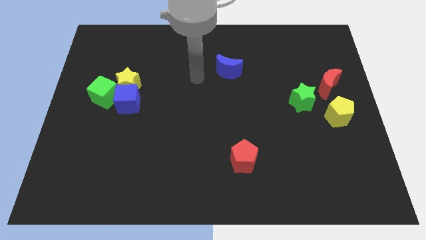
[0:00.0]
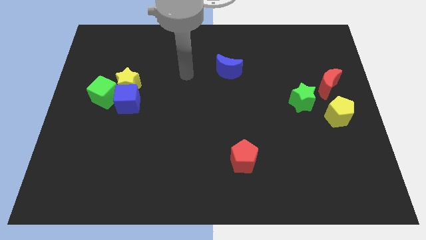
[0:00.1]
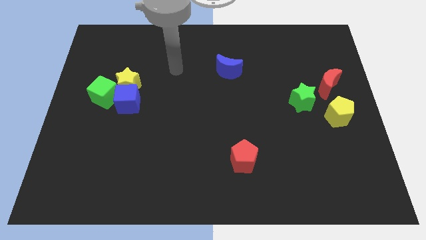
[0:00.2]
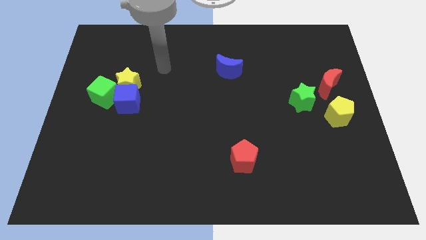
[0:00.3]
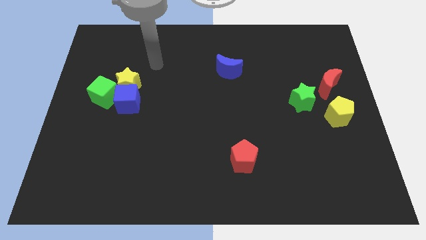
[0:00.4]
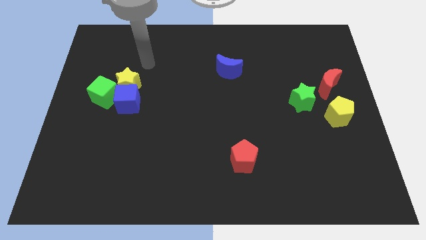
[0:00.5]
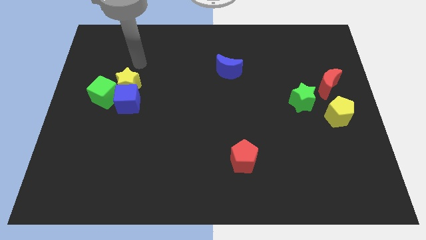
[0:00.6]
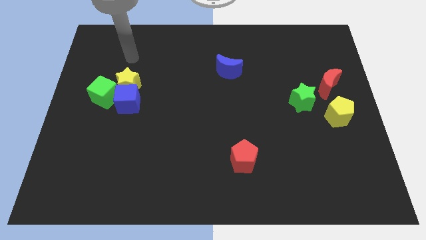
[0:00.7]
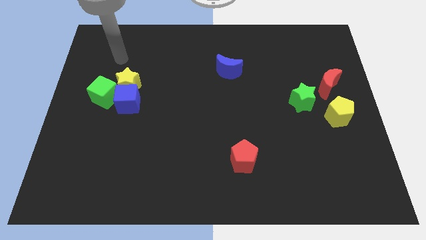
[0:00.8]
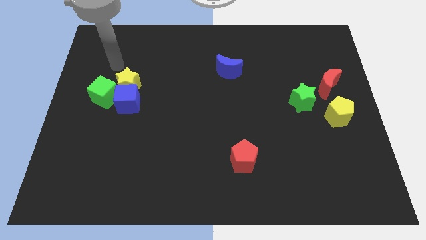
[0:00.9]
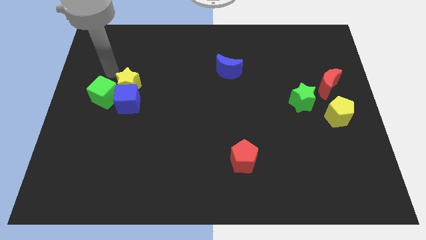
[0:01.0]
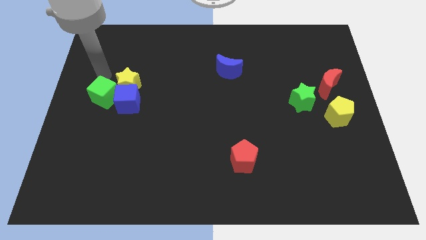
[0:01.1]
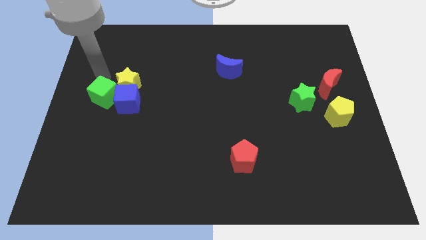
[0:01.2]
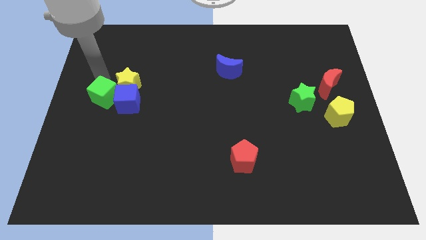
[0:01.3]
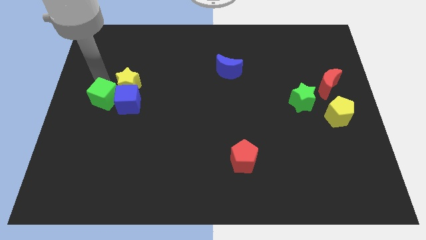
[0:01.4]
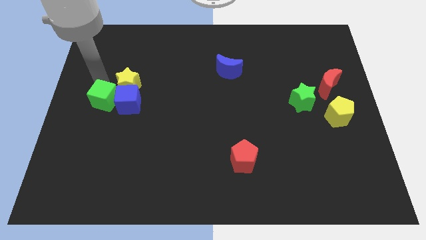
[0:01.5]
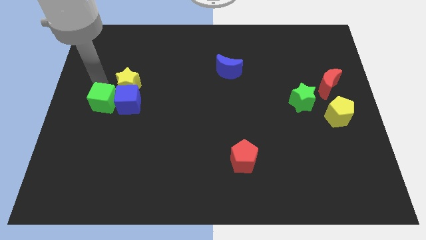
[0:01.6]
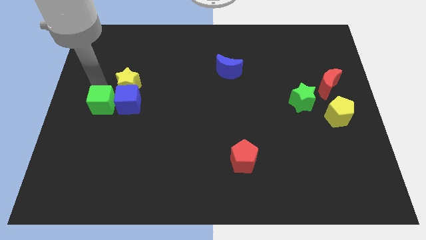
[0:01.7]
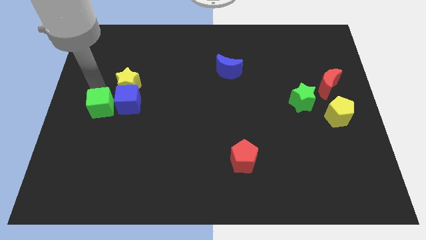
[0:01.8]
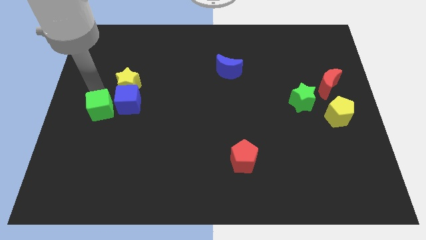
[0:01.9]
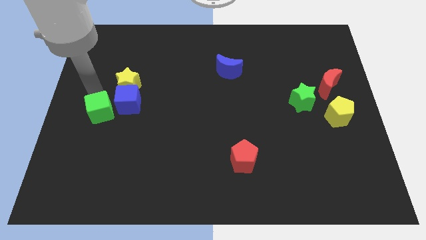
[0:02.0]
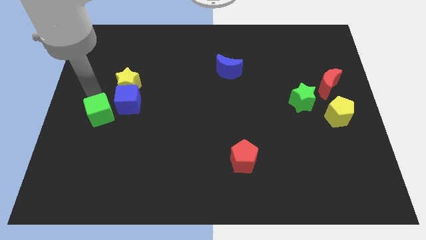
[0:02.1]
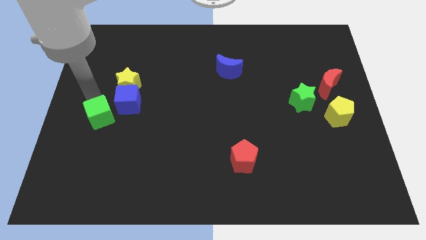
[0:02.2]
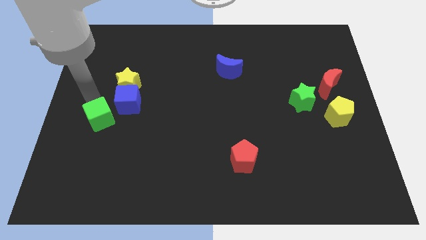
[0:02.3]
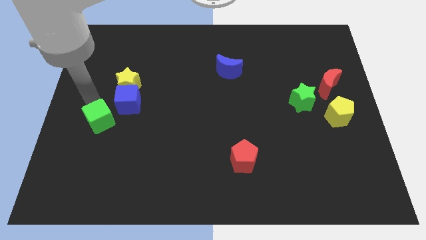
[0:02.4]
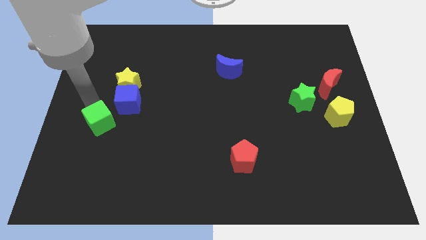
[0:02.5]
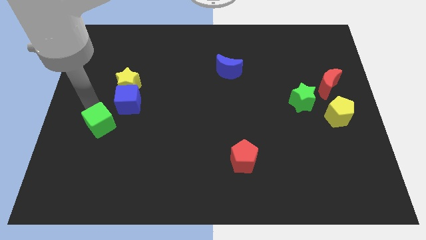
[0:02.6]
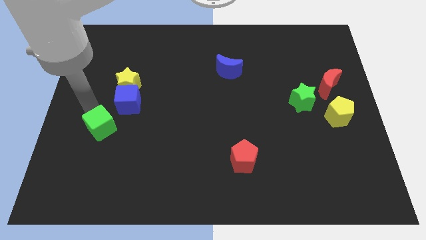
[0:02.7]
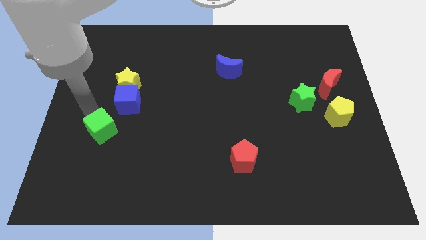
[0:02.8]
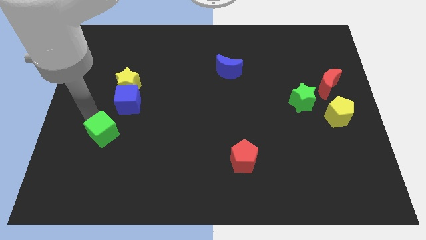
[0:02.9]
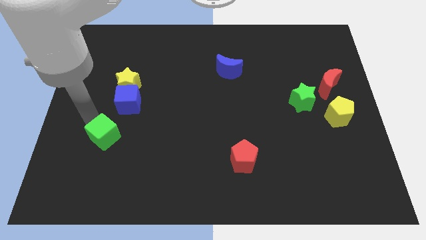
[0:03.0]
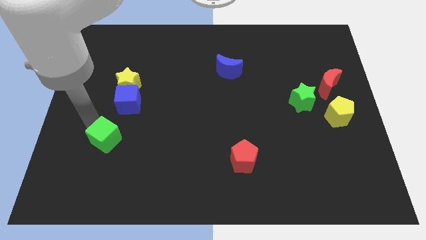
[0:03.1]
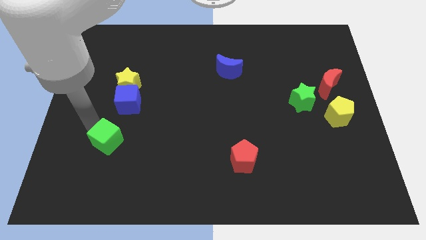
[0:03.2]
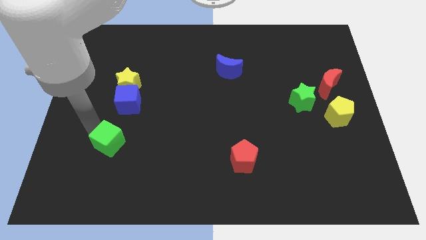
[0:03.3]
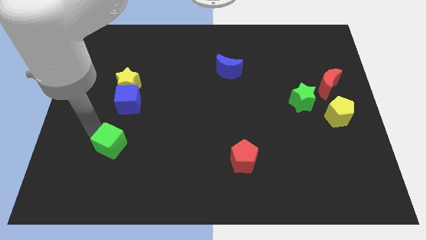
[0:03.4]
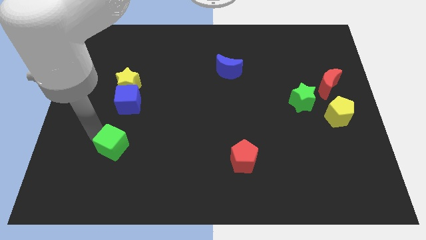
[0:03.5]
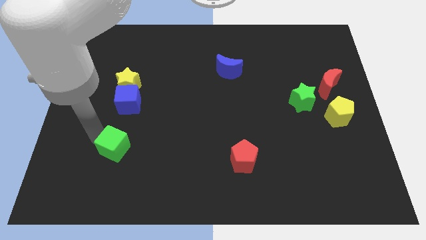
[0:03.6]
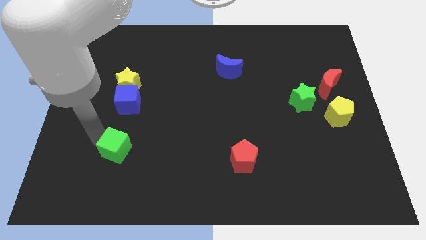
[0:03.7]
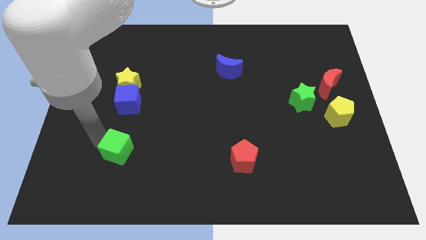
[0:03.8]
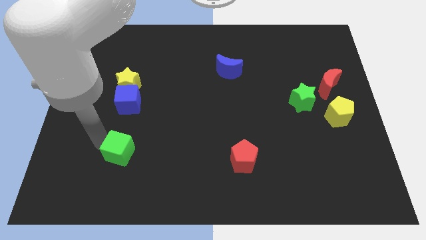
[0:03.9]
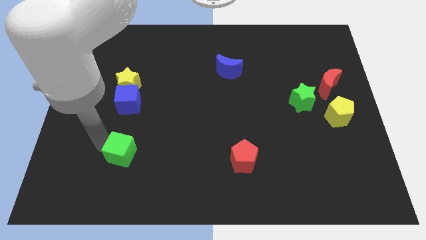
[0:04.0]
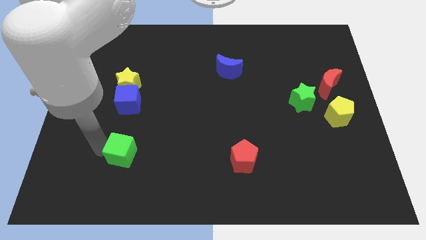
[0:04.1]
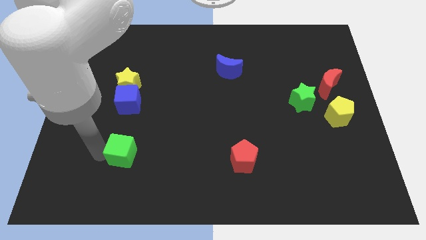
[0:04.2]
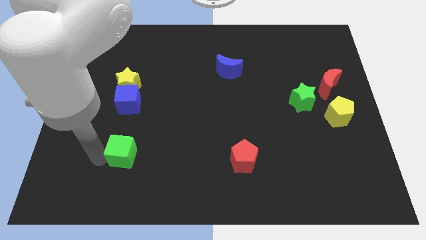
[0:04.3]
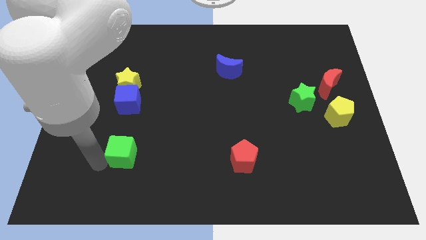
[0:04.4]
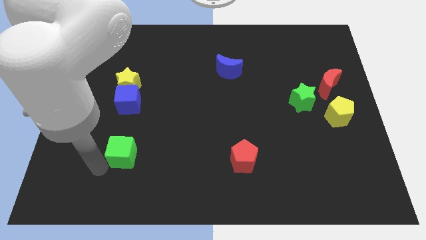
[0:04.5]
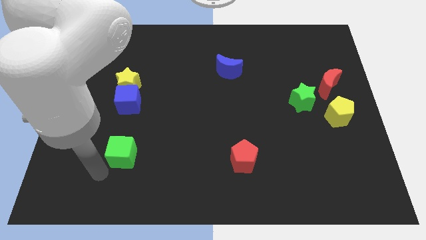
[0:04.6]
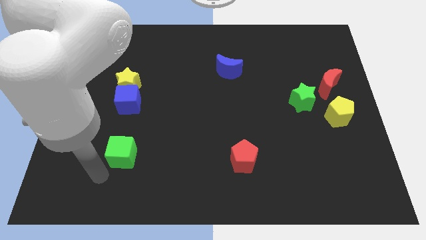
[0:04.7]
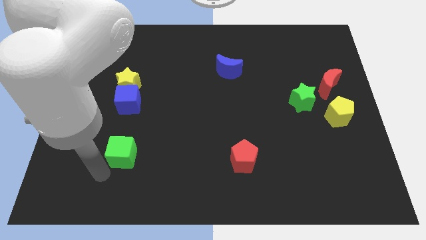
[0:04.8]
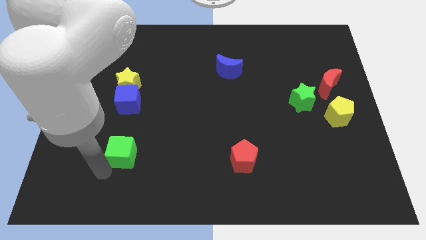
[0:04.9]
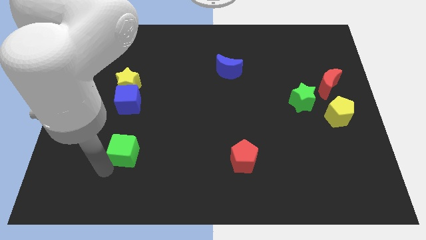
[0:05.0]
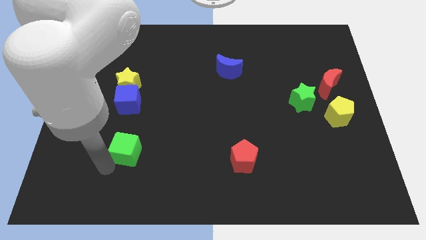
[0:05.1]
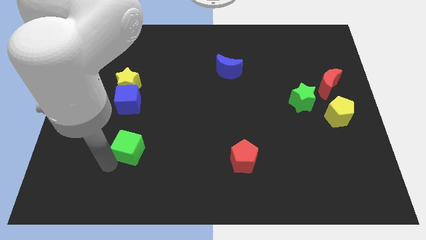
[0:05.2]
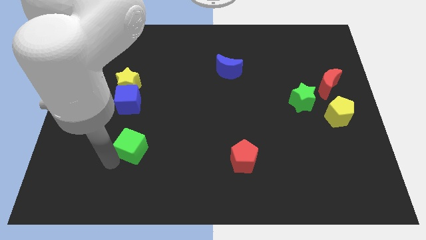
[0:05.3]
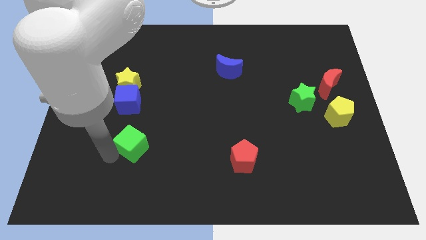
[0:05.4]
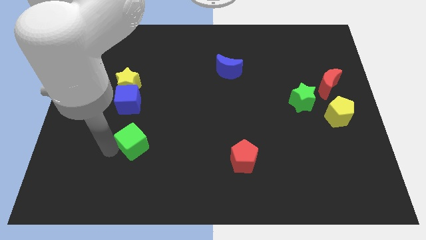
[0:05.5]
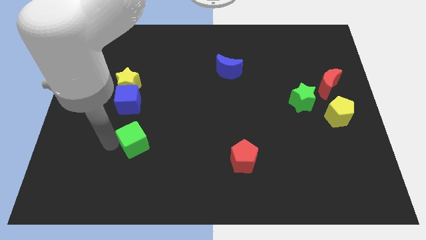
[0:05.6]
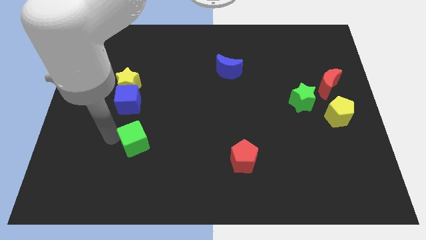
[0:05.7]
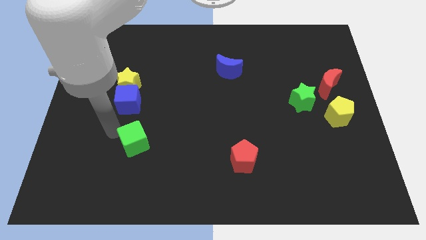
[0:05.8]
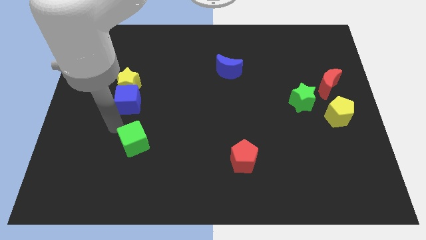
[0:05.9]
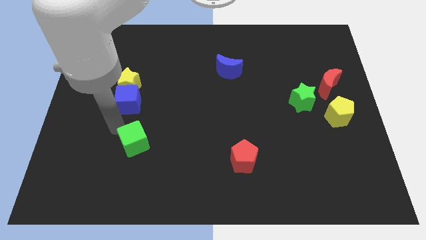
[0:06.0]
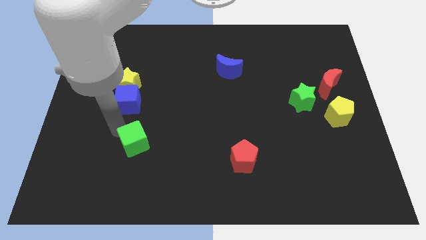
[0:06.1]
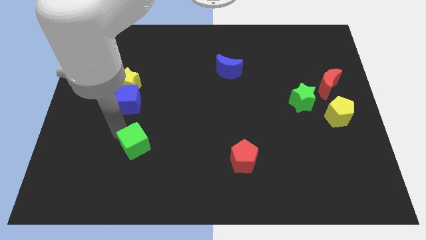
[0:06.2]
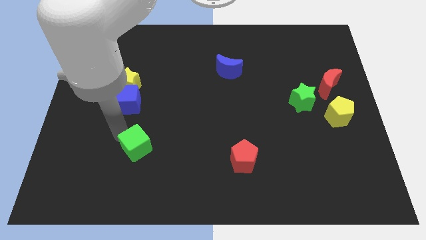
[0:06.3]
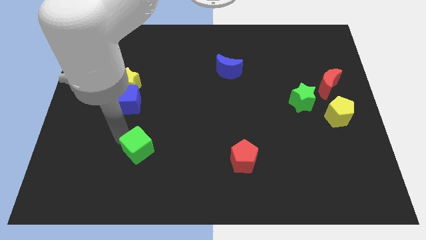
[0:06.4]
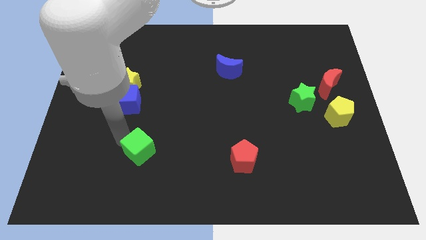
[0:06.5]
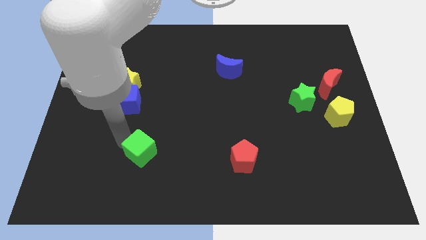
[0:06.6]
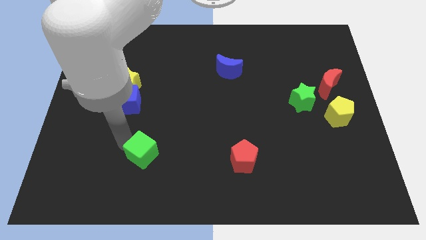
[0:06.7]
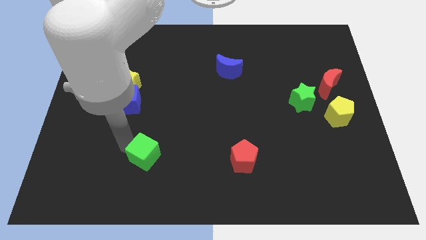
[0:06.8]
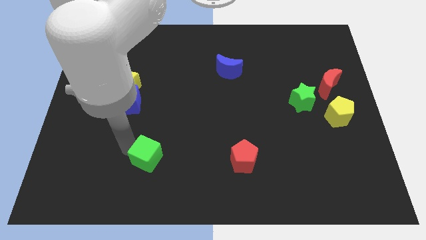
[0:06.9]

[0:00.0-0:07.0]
slide the green cube down and then right

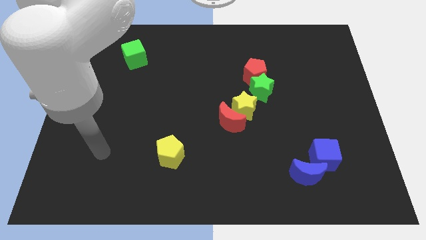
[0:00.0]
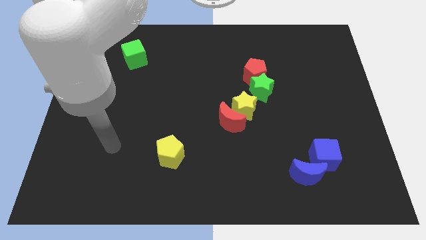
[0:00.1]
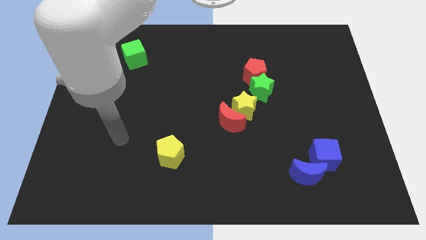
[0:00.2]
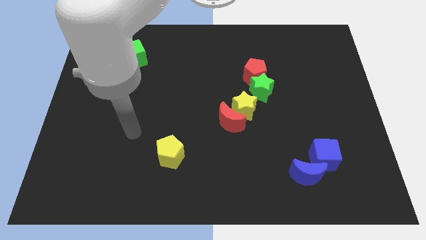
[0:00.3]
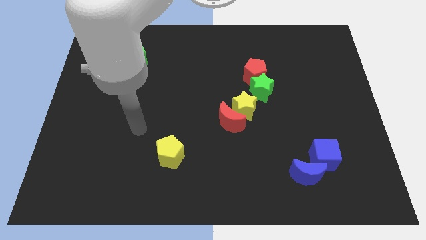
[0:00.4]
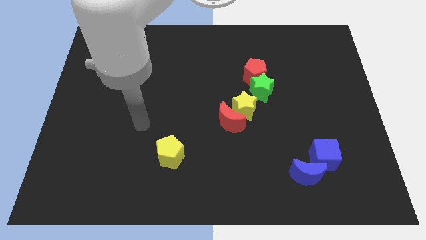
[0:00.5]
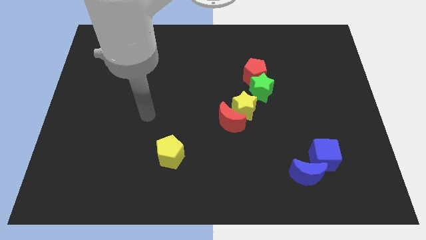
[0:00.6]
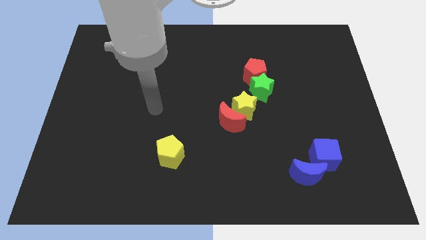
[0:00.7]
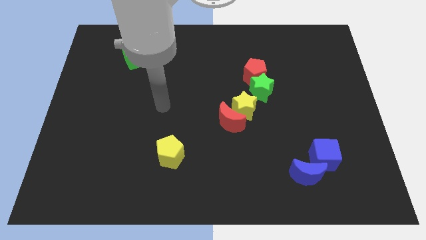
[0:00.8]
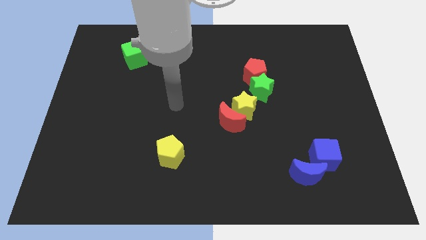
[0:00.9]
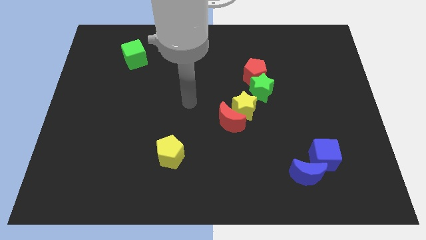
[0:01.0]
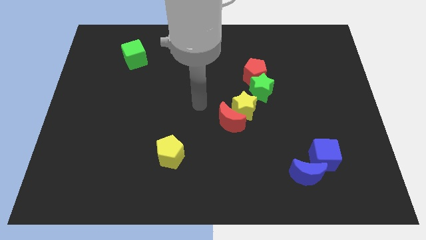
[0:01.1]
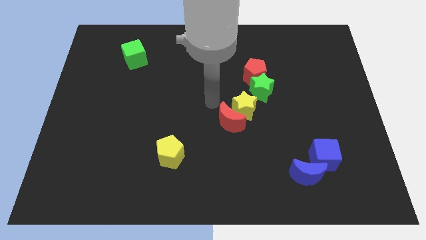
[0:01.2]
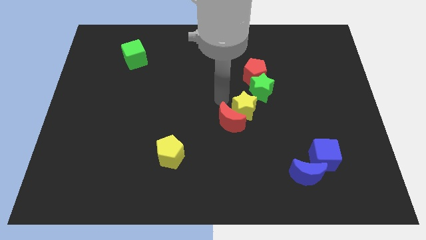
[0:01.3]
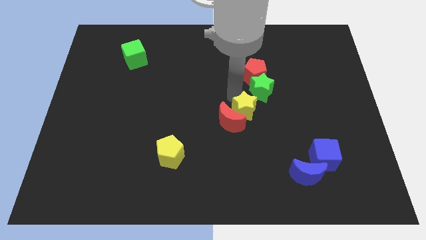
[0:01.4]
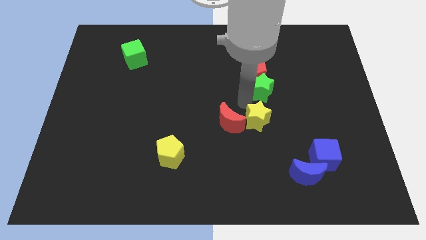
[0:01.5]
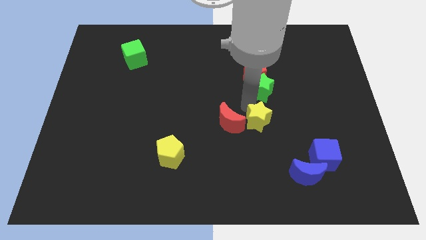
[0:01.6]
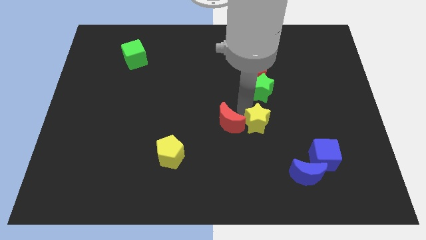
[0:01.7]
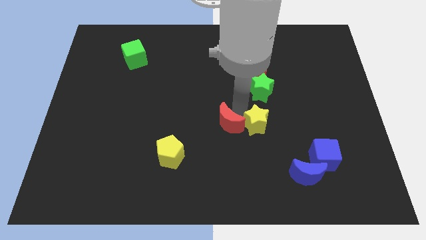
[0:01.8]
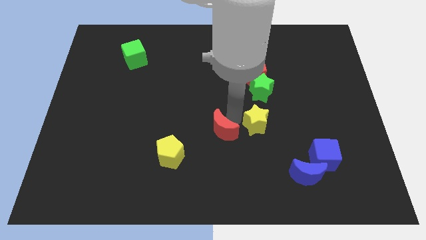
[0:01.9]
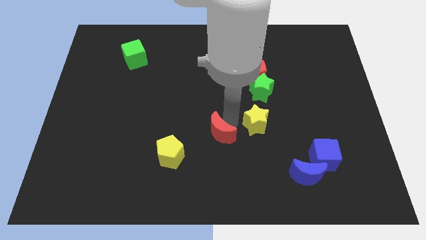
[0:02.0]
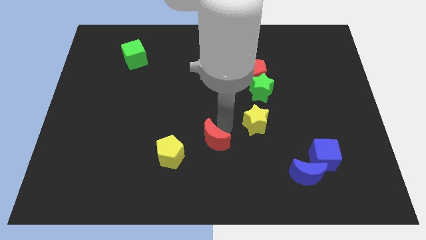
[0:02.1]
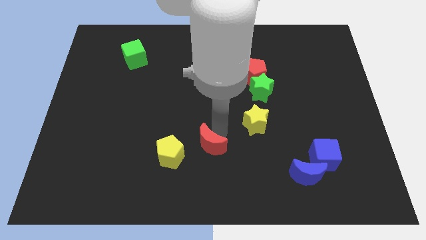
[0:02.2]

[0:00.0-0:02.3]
slide the red moon downwards and to the left slightly
